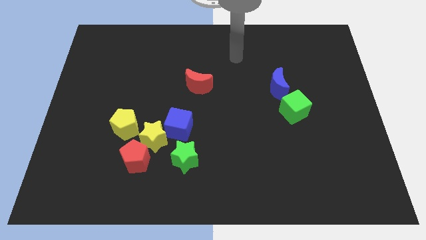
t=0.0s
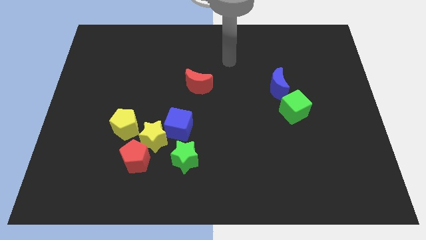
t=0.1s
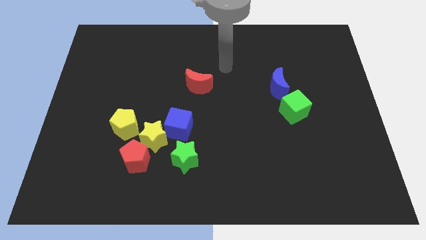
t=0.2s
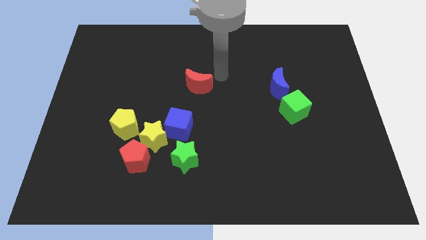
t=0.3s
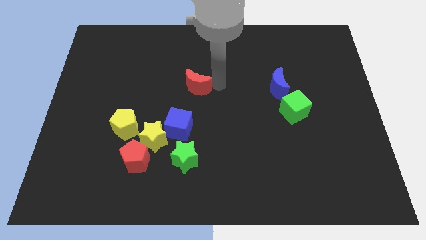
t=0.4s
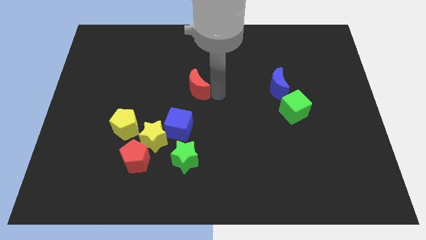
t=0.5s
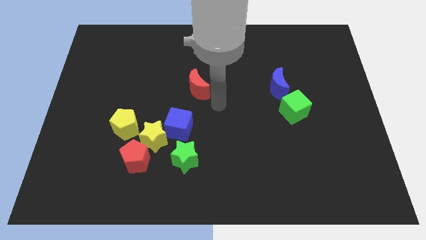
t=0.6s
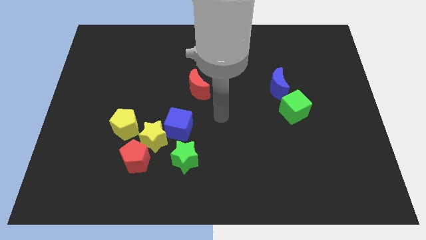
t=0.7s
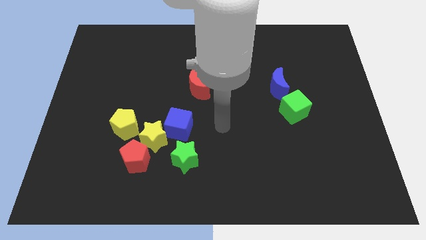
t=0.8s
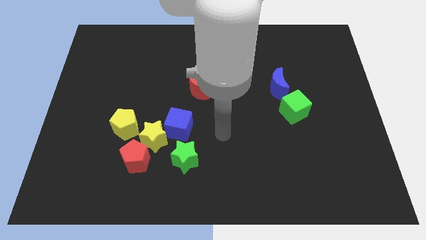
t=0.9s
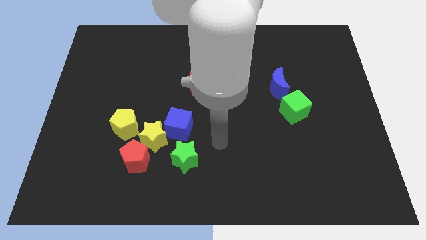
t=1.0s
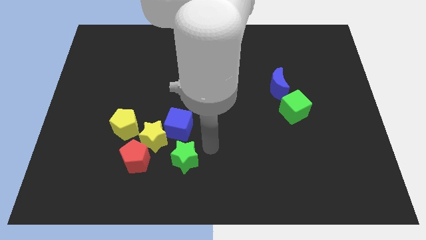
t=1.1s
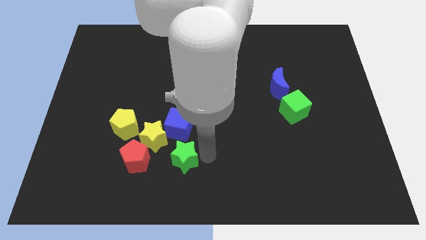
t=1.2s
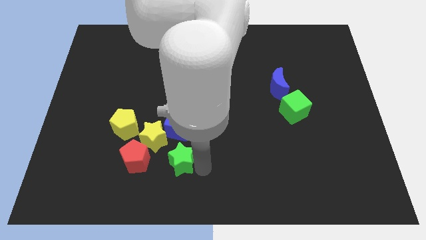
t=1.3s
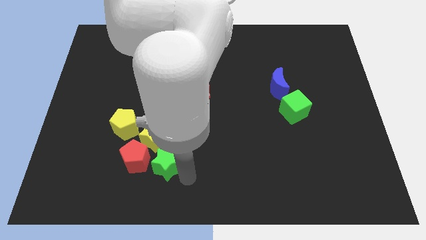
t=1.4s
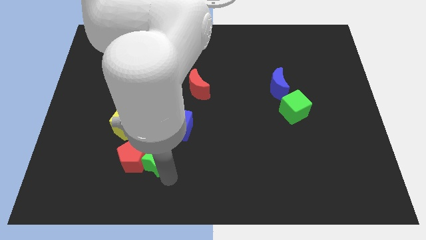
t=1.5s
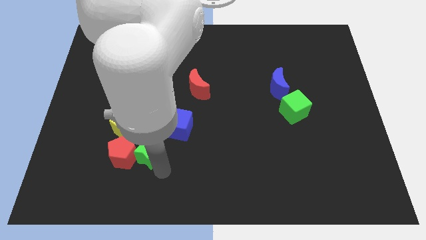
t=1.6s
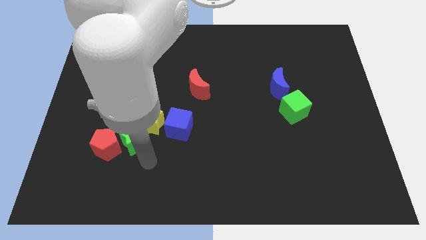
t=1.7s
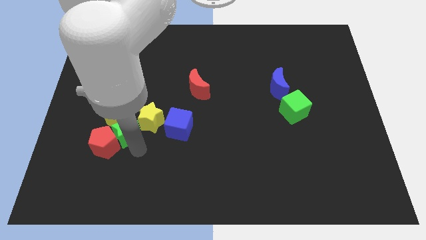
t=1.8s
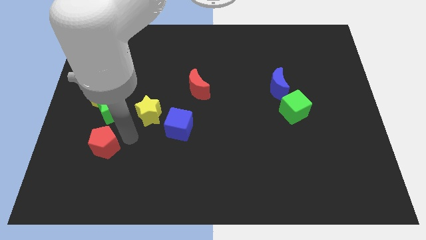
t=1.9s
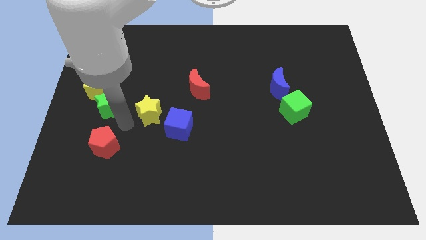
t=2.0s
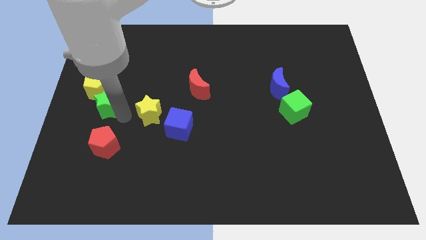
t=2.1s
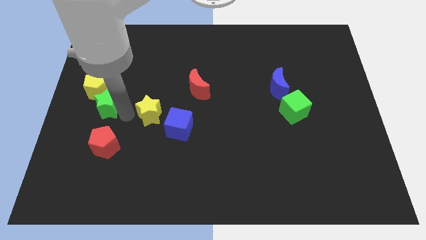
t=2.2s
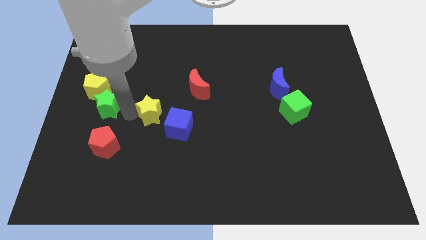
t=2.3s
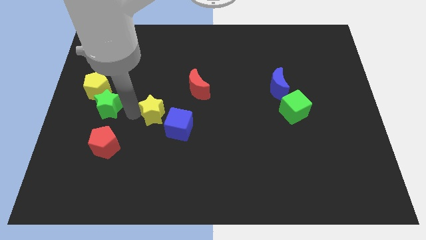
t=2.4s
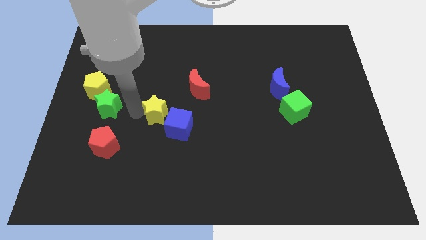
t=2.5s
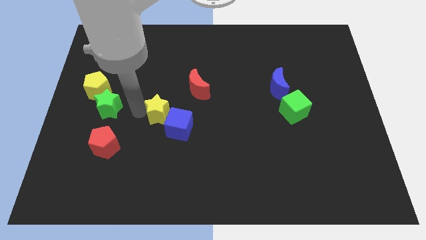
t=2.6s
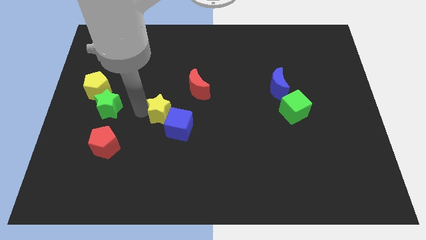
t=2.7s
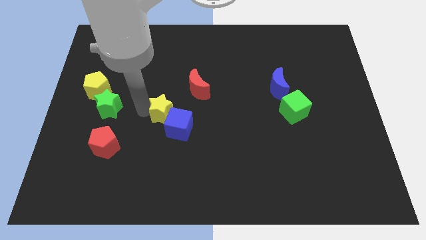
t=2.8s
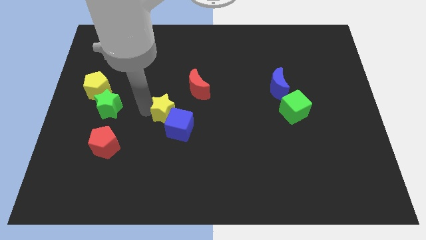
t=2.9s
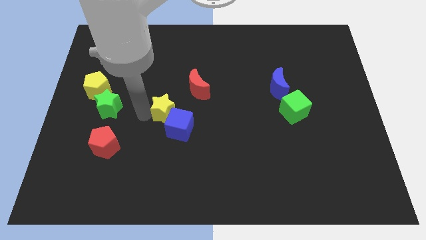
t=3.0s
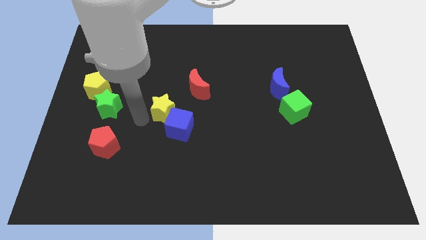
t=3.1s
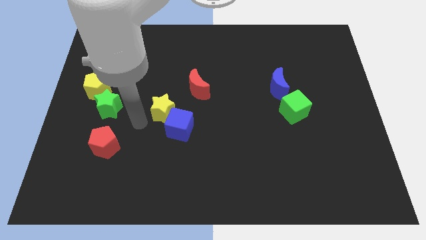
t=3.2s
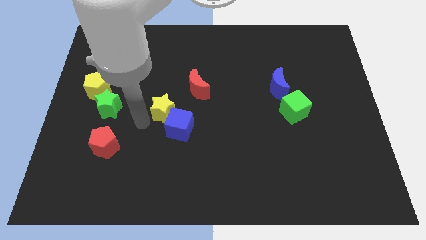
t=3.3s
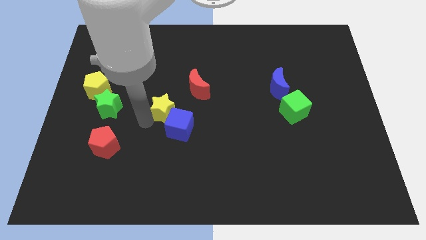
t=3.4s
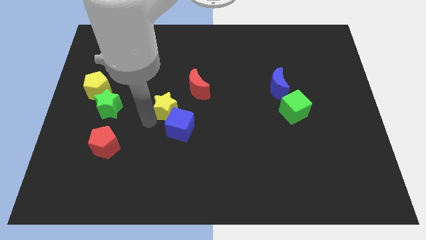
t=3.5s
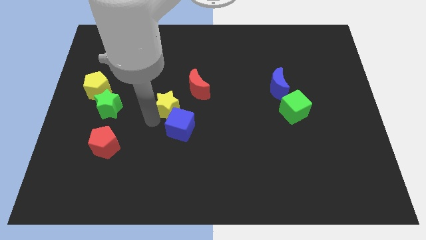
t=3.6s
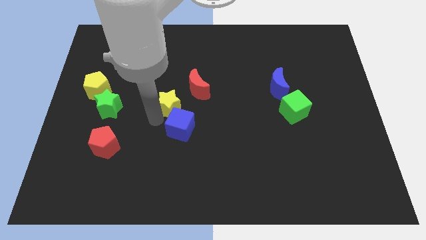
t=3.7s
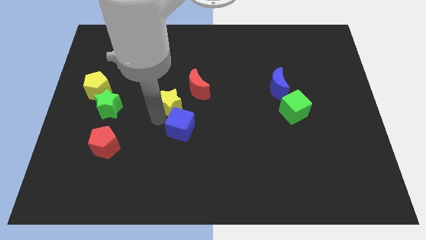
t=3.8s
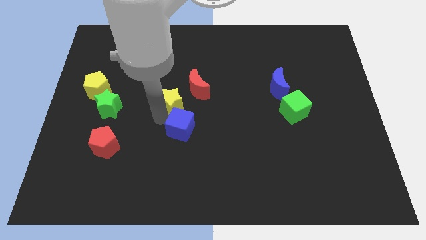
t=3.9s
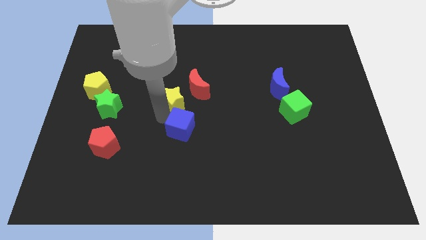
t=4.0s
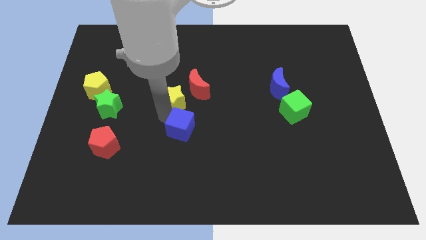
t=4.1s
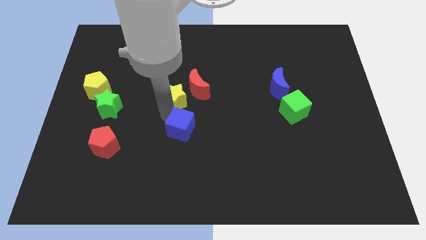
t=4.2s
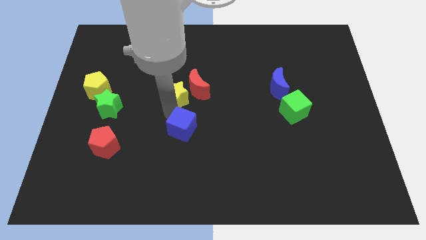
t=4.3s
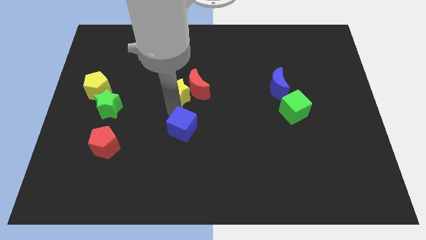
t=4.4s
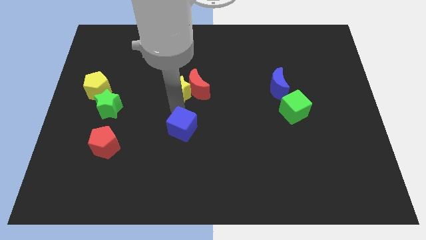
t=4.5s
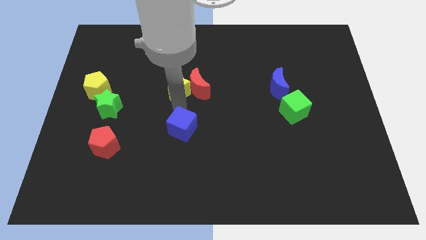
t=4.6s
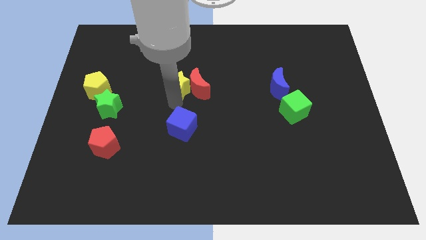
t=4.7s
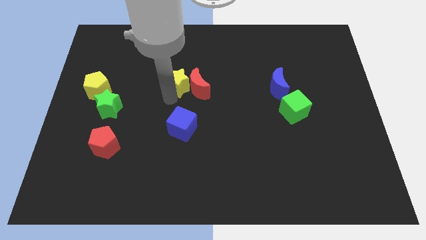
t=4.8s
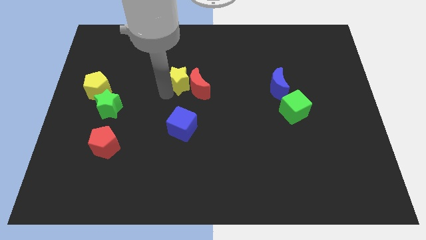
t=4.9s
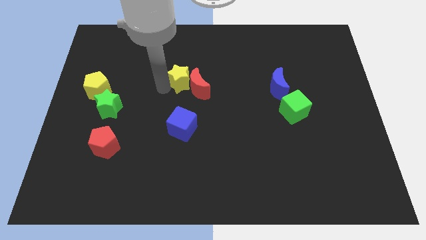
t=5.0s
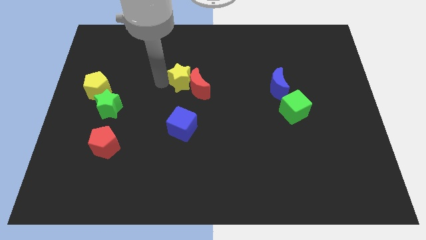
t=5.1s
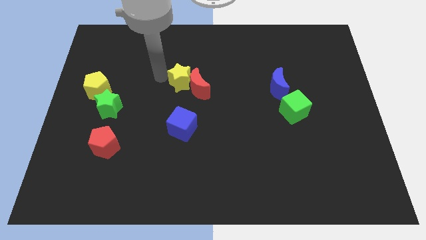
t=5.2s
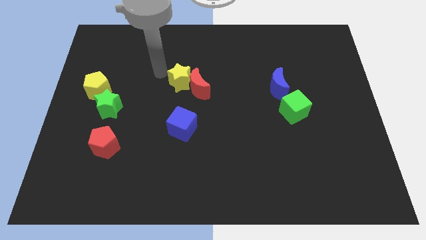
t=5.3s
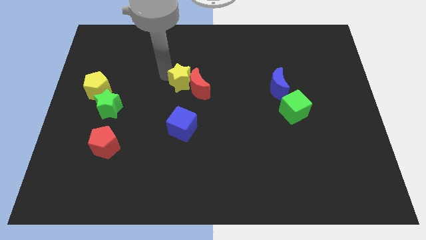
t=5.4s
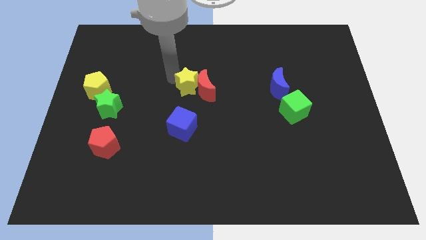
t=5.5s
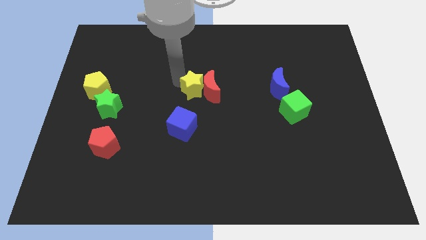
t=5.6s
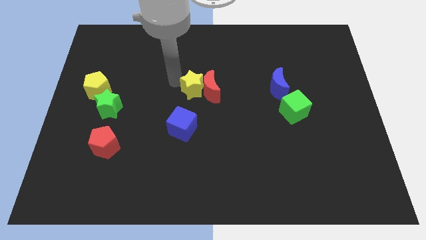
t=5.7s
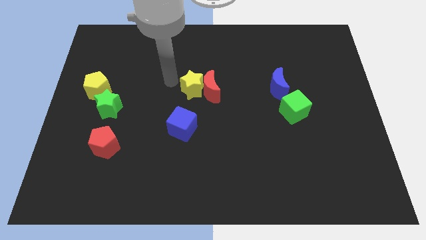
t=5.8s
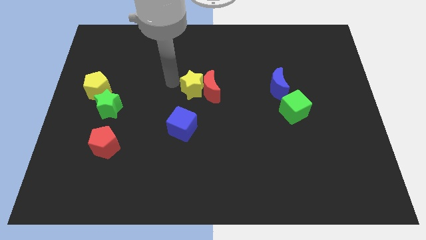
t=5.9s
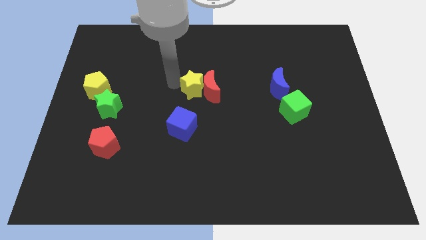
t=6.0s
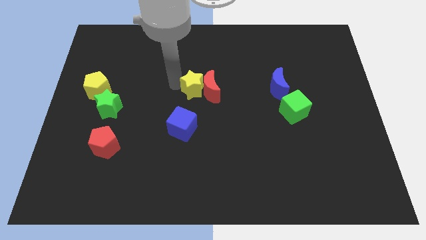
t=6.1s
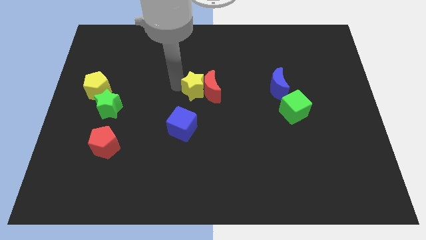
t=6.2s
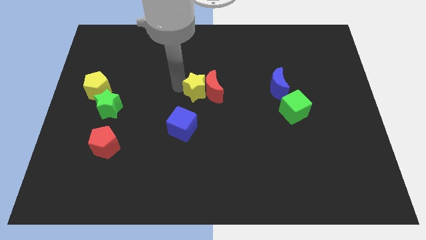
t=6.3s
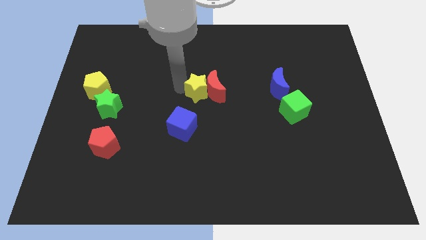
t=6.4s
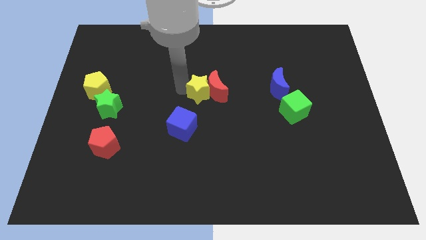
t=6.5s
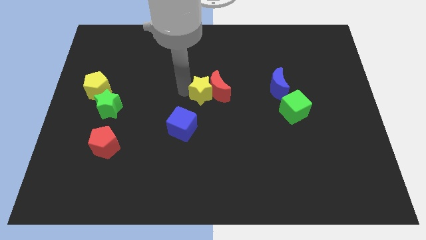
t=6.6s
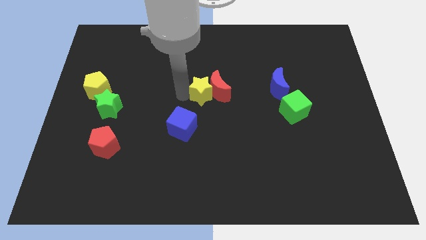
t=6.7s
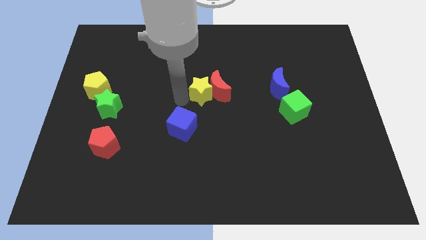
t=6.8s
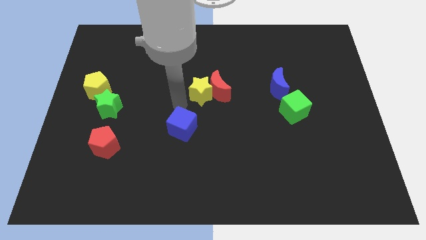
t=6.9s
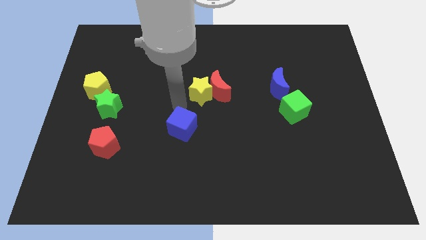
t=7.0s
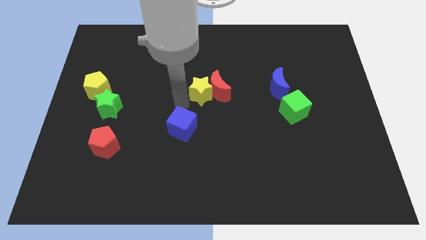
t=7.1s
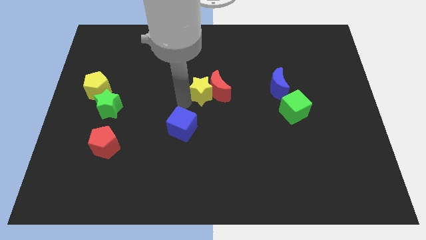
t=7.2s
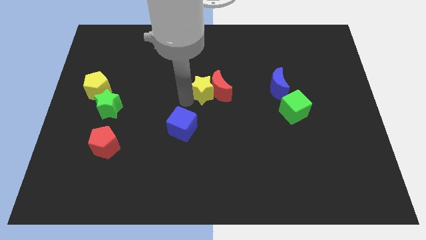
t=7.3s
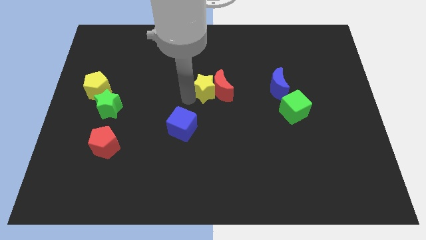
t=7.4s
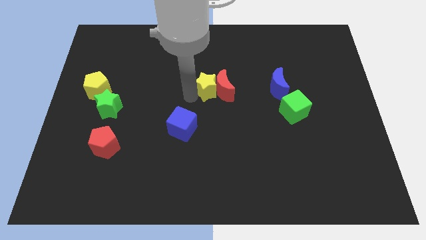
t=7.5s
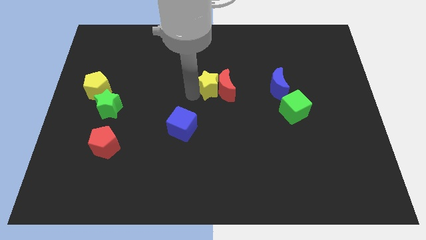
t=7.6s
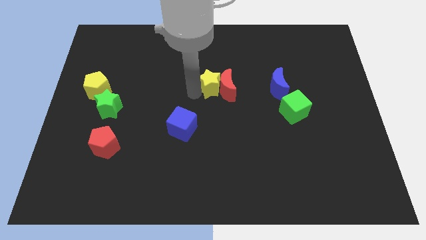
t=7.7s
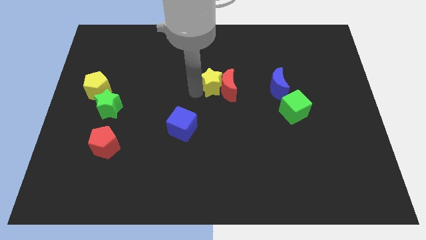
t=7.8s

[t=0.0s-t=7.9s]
slide the yellow star diagonally up and to the right
